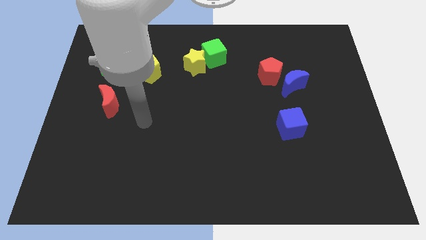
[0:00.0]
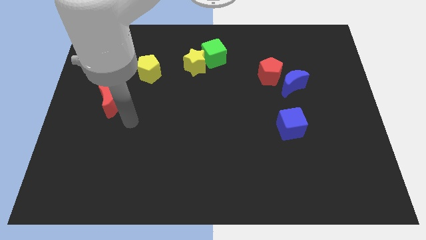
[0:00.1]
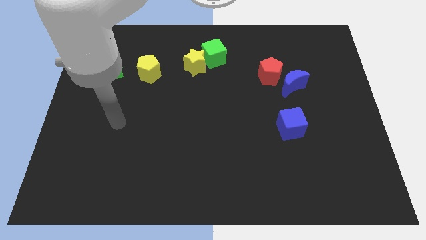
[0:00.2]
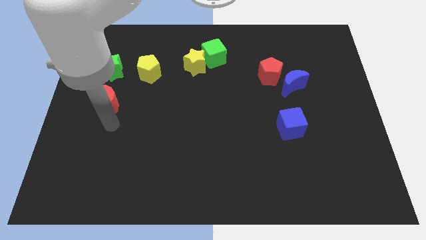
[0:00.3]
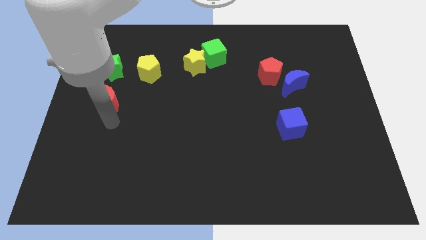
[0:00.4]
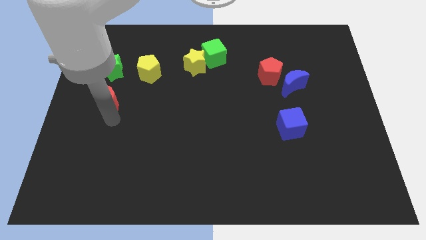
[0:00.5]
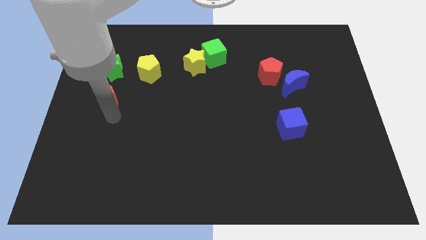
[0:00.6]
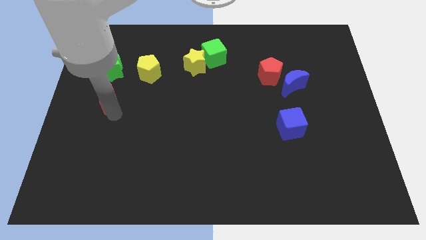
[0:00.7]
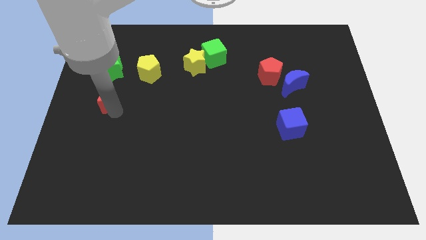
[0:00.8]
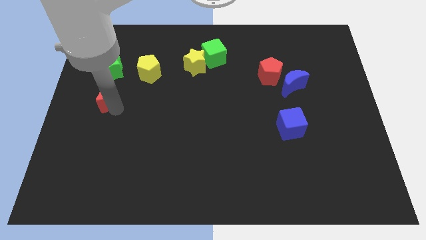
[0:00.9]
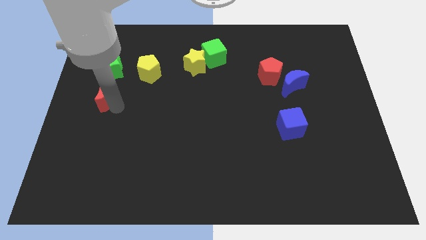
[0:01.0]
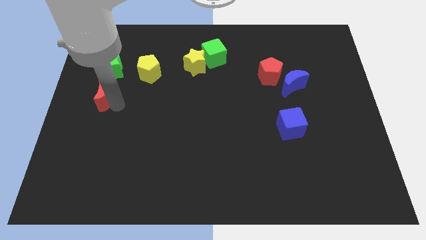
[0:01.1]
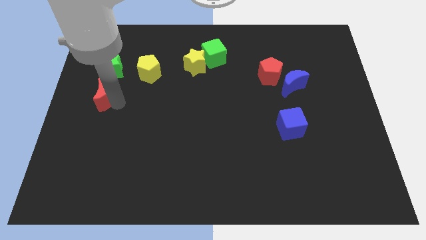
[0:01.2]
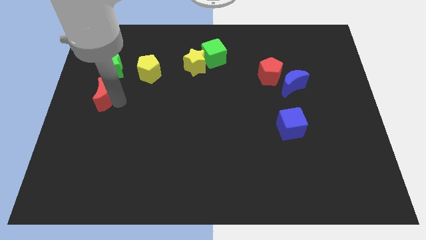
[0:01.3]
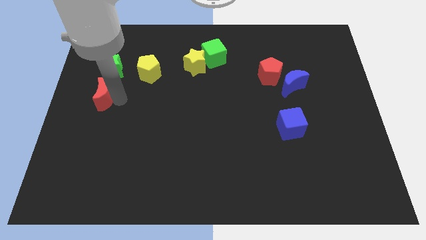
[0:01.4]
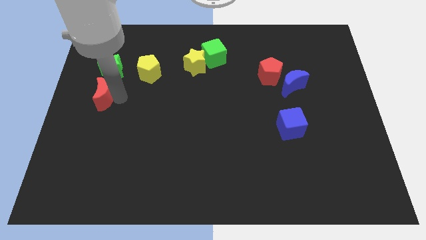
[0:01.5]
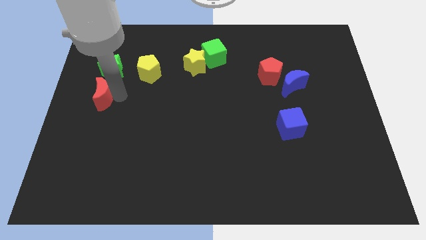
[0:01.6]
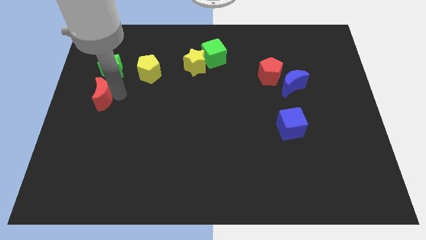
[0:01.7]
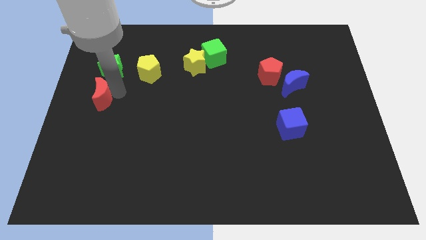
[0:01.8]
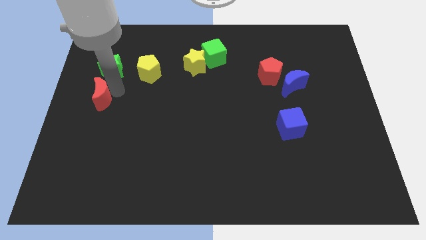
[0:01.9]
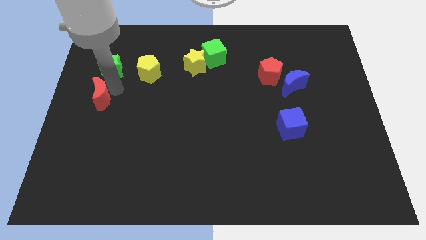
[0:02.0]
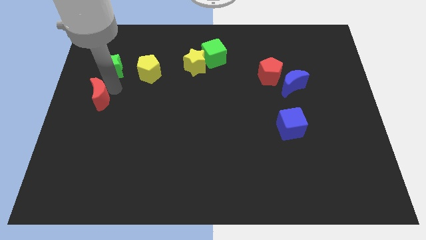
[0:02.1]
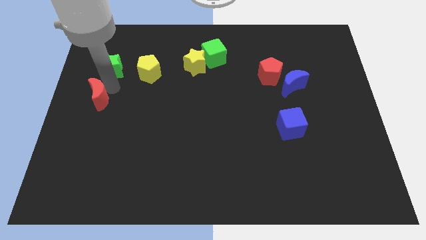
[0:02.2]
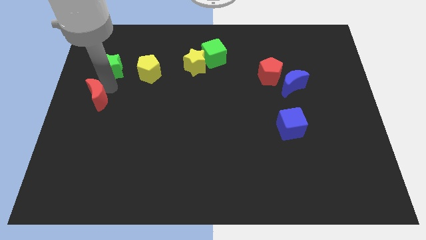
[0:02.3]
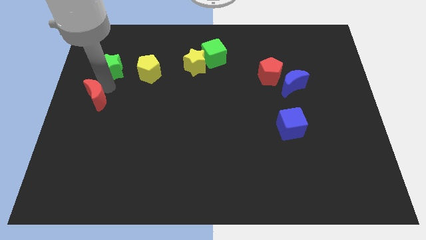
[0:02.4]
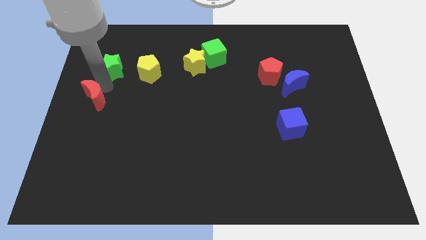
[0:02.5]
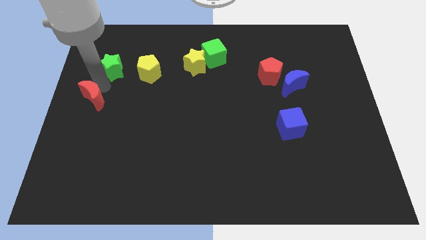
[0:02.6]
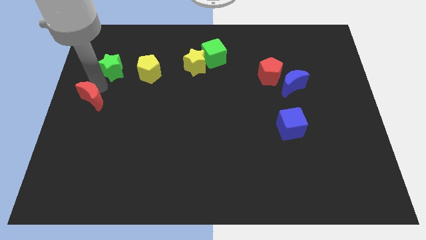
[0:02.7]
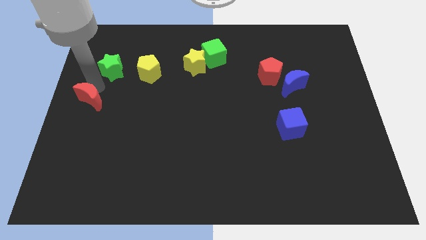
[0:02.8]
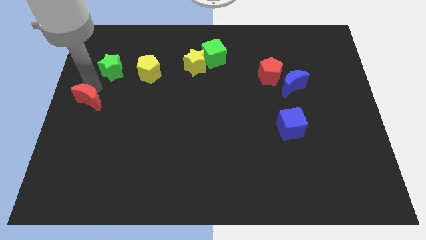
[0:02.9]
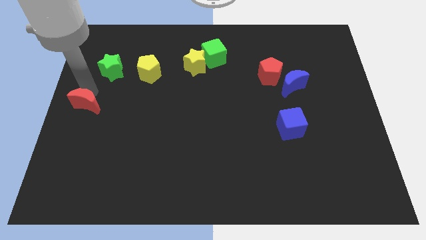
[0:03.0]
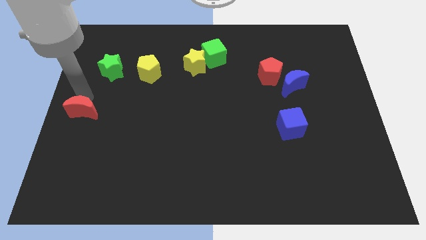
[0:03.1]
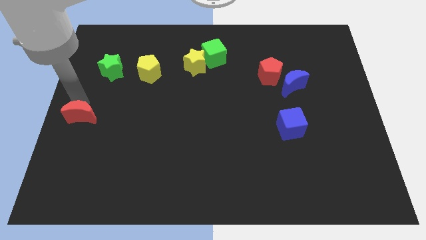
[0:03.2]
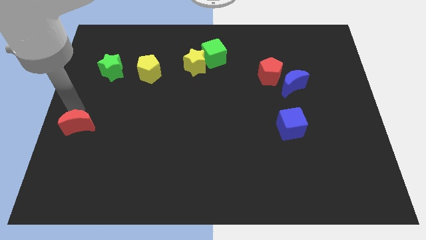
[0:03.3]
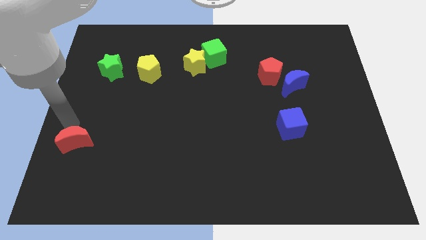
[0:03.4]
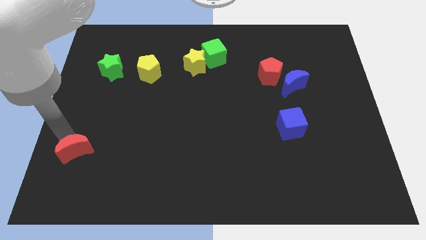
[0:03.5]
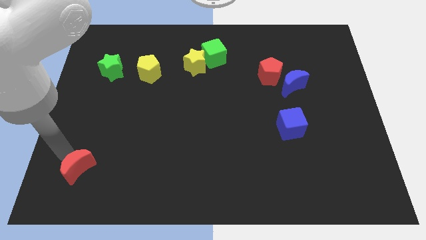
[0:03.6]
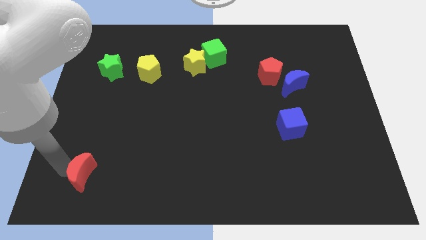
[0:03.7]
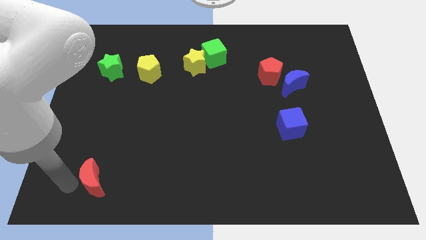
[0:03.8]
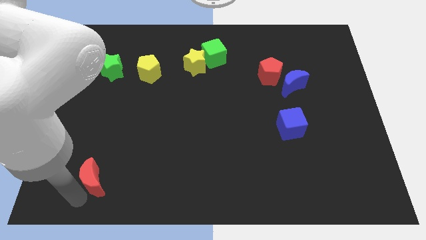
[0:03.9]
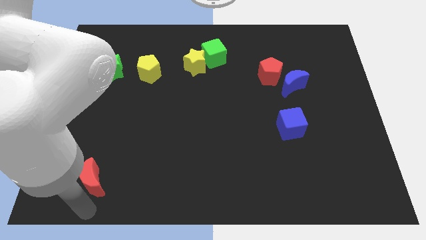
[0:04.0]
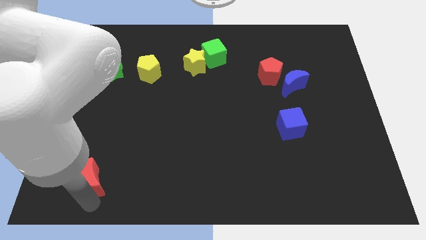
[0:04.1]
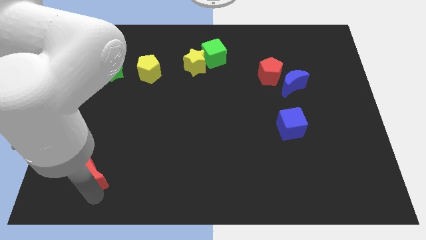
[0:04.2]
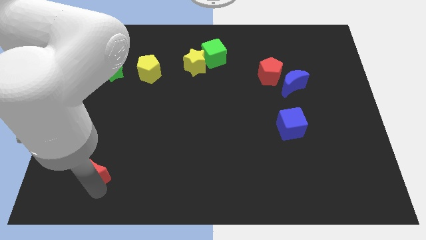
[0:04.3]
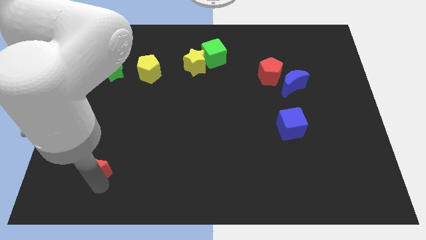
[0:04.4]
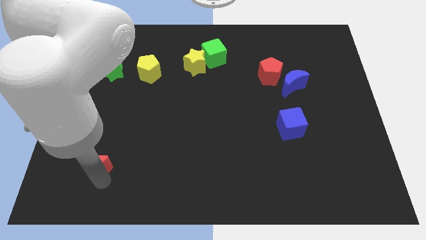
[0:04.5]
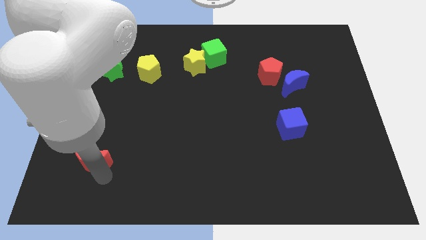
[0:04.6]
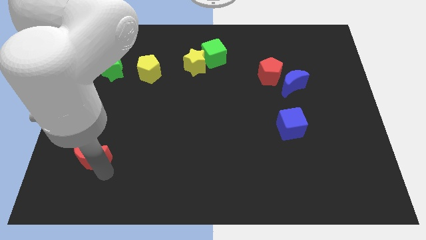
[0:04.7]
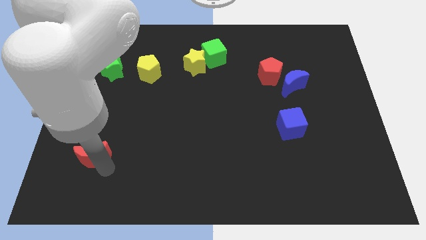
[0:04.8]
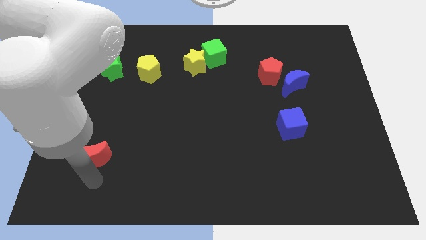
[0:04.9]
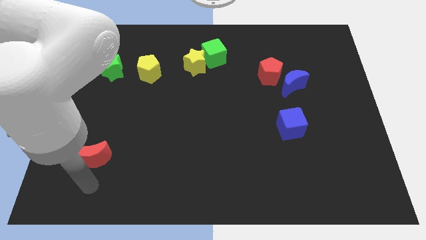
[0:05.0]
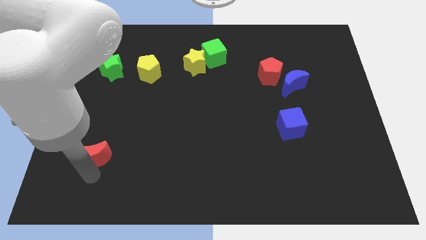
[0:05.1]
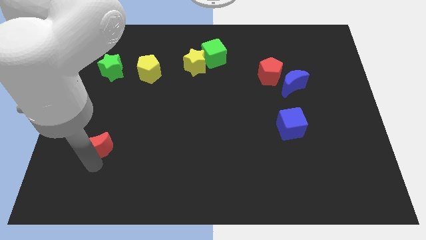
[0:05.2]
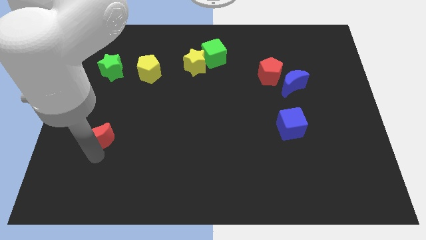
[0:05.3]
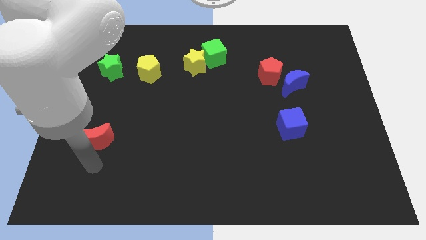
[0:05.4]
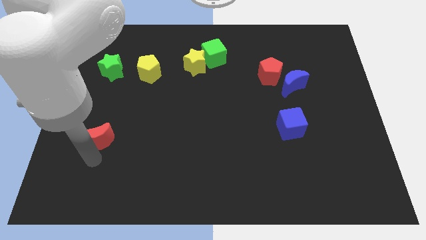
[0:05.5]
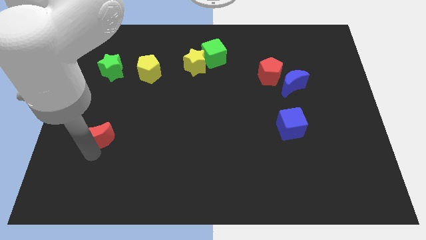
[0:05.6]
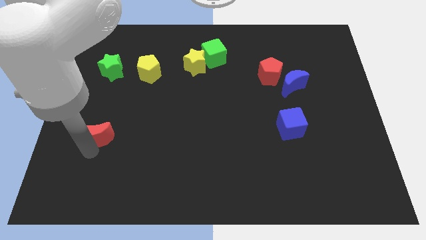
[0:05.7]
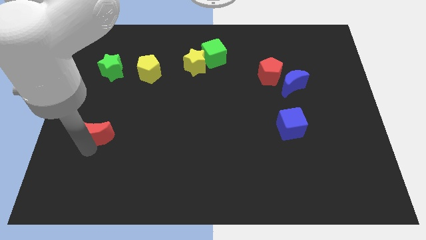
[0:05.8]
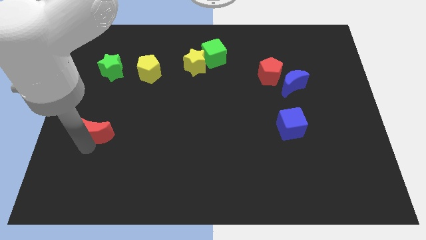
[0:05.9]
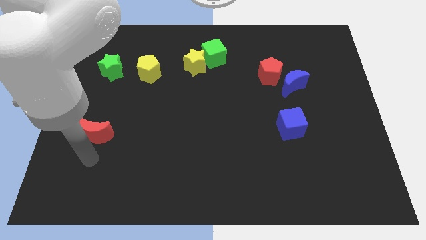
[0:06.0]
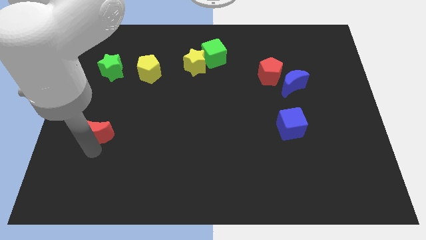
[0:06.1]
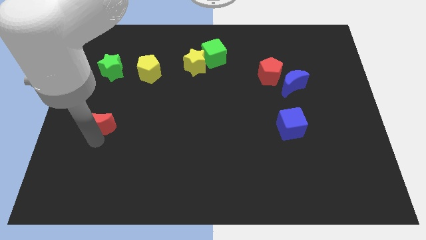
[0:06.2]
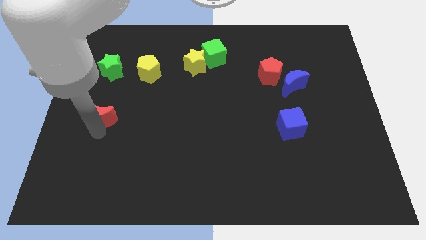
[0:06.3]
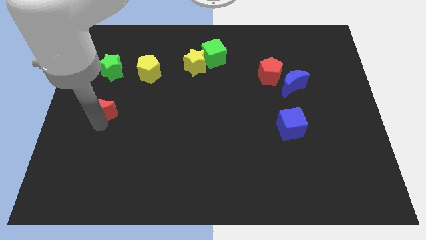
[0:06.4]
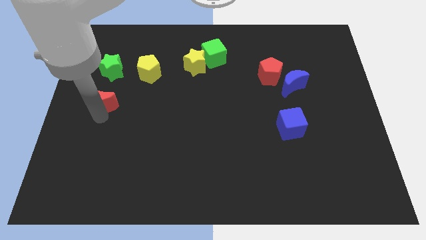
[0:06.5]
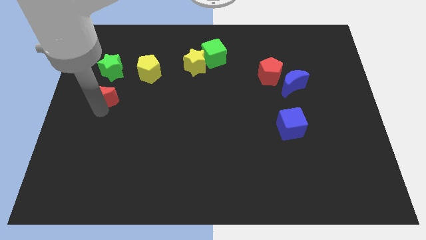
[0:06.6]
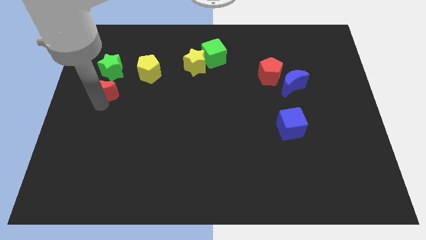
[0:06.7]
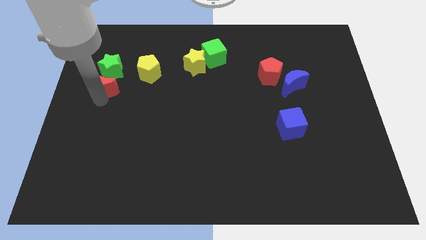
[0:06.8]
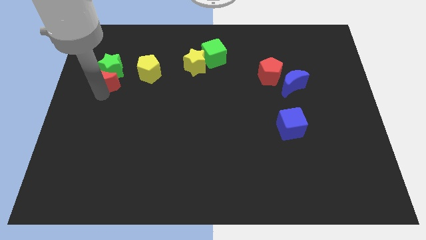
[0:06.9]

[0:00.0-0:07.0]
push the red moon next to the green star

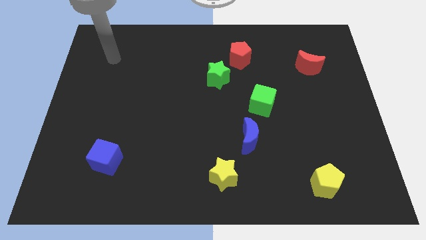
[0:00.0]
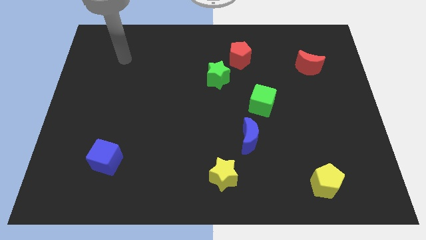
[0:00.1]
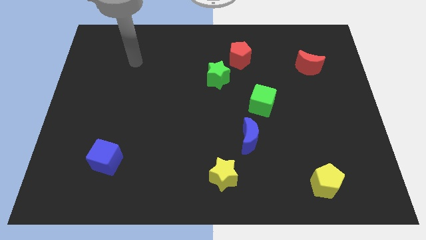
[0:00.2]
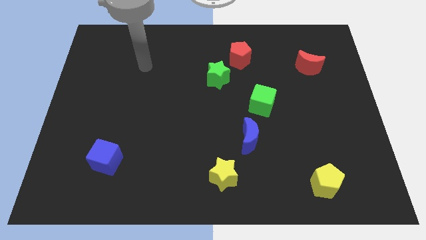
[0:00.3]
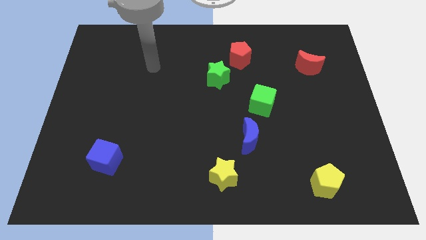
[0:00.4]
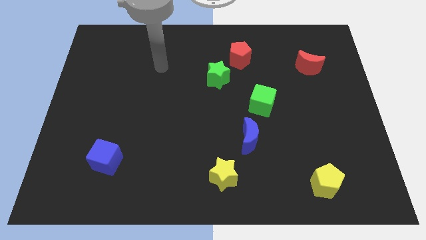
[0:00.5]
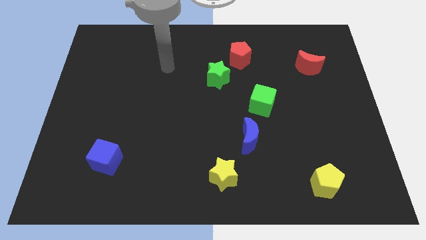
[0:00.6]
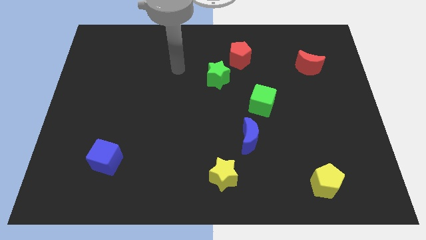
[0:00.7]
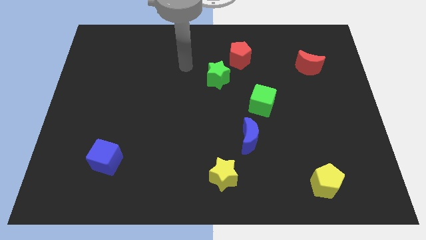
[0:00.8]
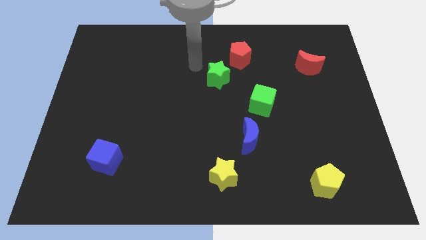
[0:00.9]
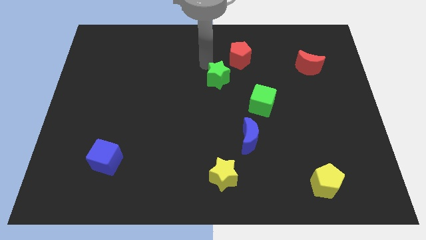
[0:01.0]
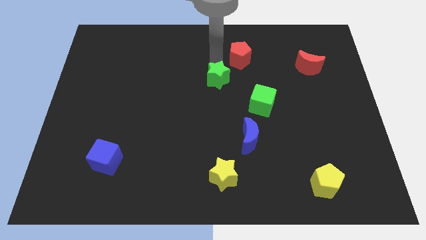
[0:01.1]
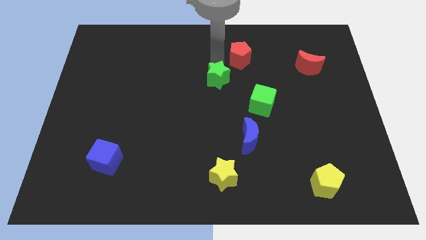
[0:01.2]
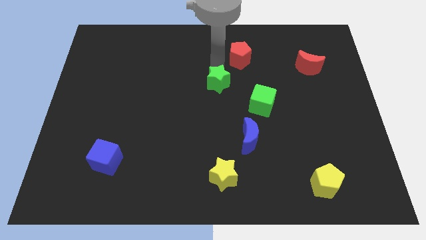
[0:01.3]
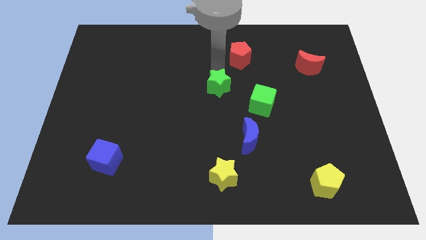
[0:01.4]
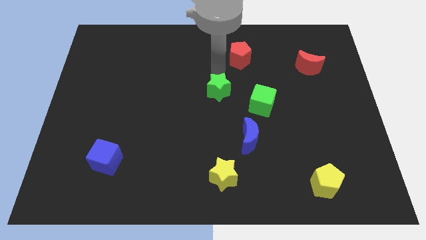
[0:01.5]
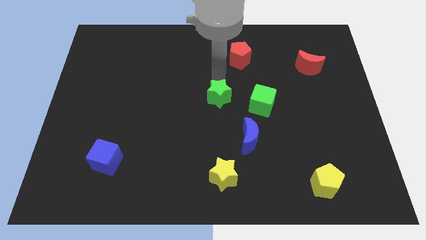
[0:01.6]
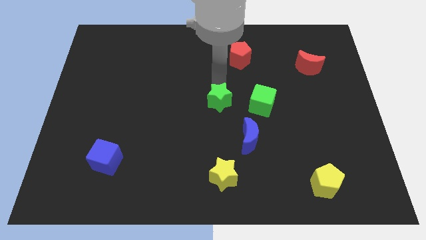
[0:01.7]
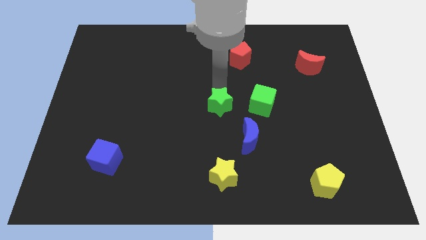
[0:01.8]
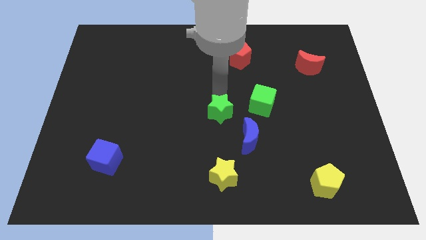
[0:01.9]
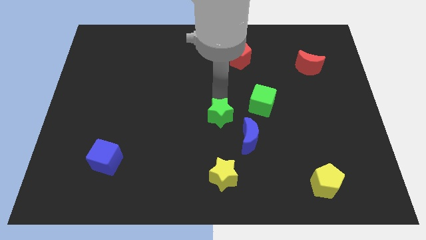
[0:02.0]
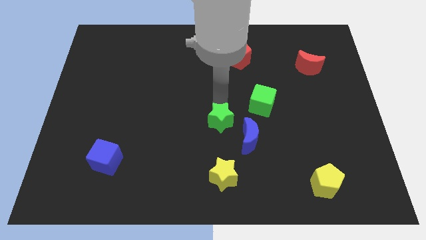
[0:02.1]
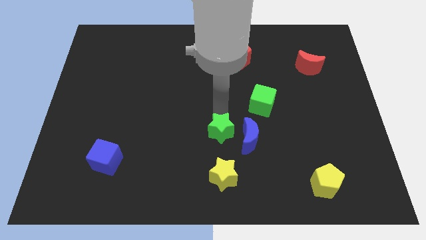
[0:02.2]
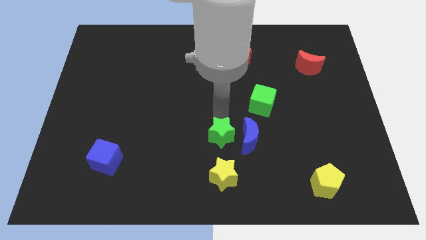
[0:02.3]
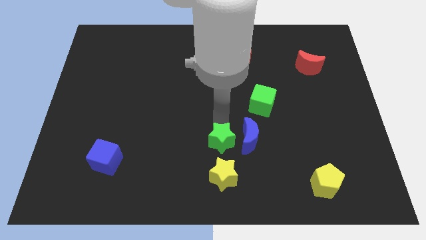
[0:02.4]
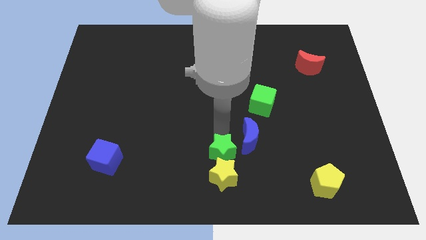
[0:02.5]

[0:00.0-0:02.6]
slide the green star next to the yellow star
